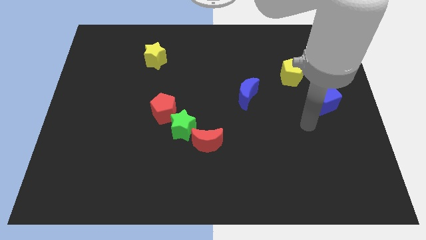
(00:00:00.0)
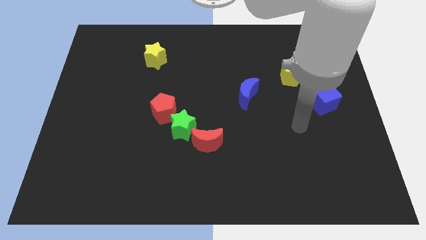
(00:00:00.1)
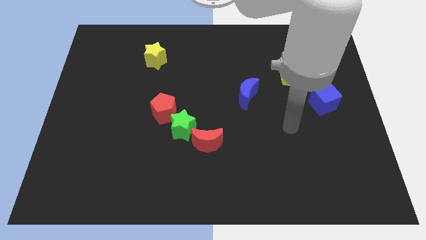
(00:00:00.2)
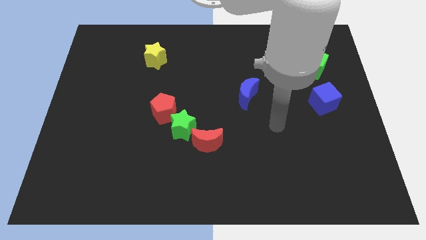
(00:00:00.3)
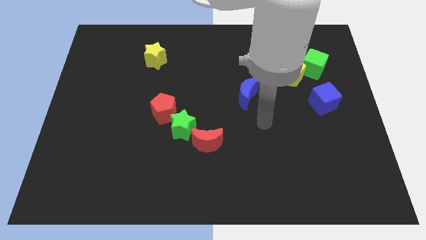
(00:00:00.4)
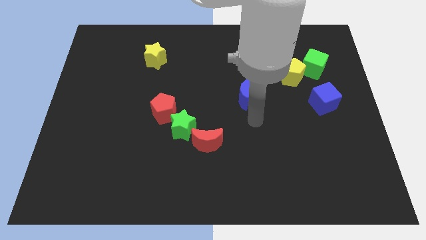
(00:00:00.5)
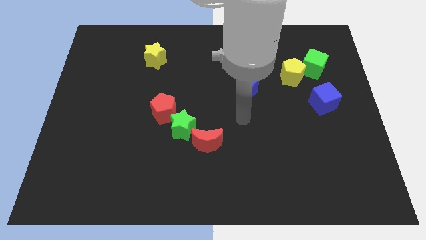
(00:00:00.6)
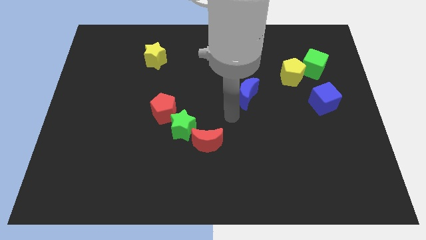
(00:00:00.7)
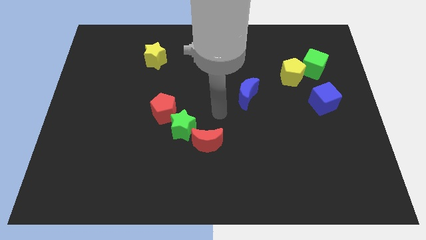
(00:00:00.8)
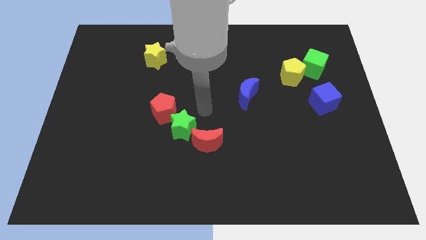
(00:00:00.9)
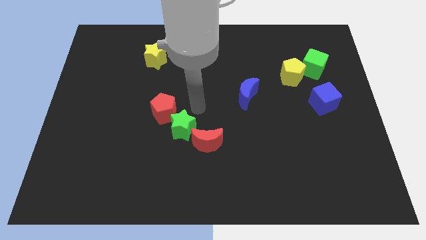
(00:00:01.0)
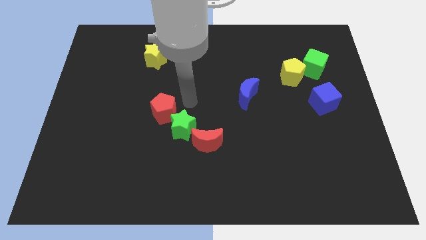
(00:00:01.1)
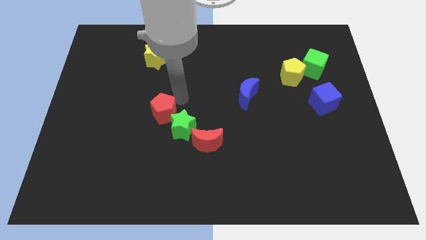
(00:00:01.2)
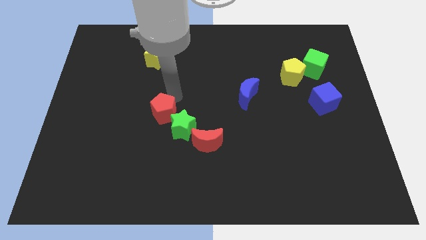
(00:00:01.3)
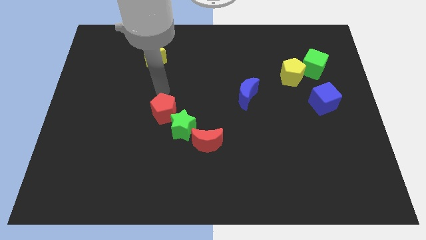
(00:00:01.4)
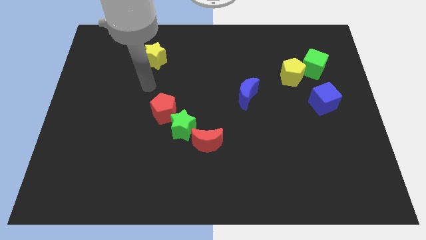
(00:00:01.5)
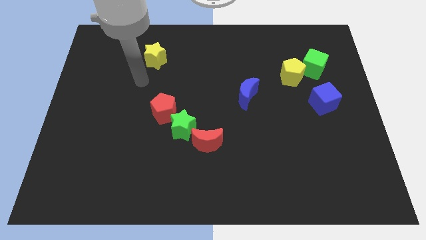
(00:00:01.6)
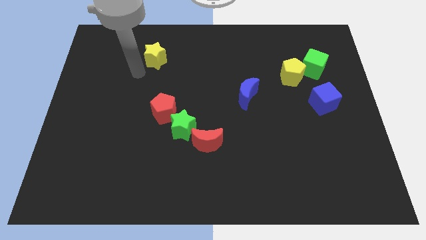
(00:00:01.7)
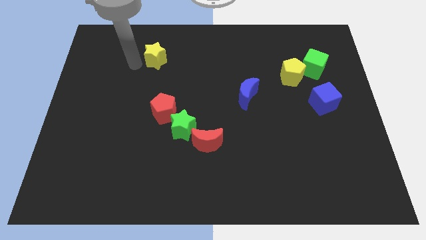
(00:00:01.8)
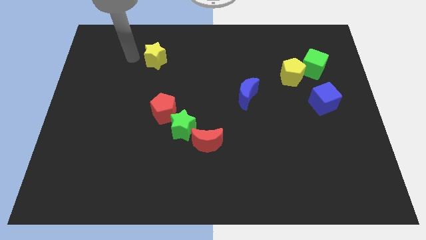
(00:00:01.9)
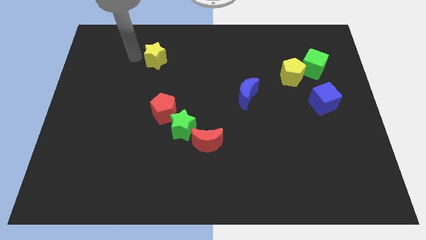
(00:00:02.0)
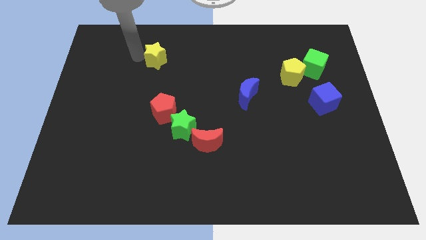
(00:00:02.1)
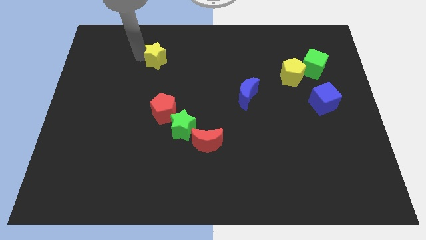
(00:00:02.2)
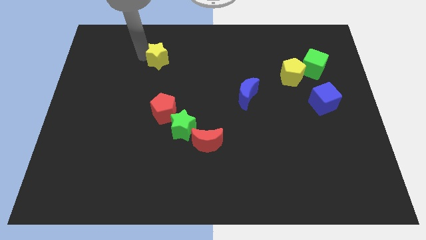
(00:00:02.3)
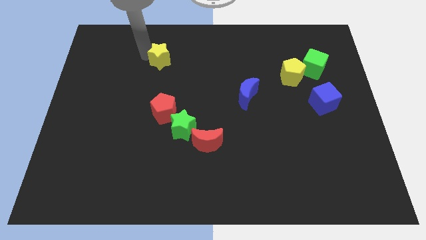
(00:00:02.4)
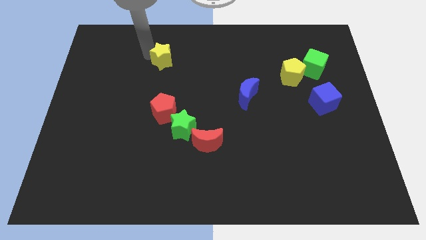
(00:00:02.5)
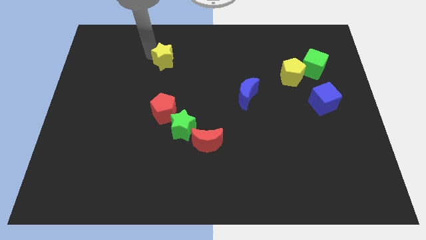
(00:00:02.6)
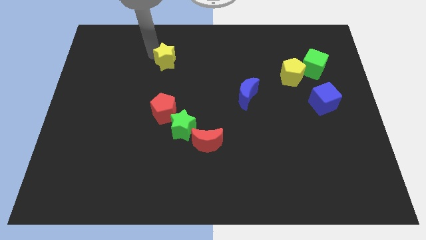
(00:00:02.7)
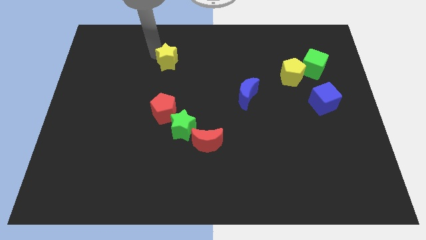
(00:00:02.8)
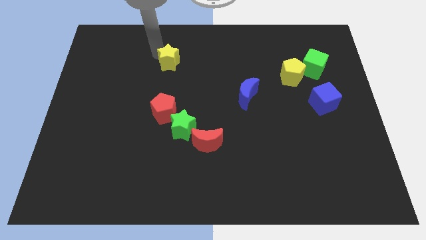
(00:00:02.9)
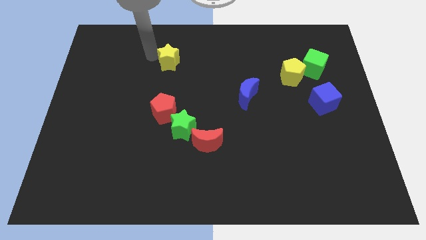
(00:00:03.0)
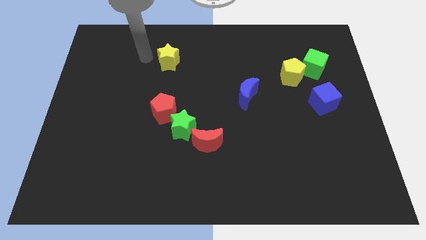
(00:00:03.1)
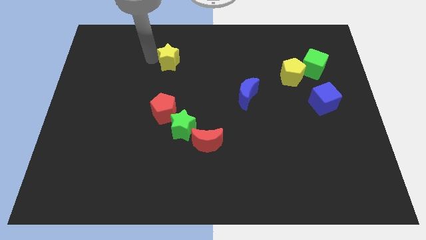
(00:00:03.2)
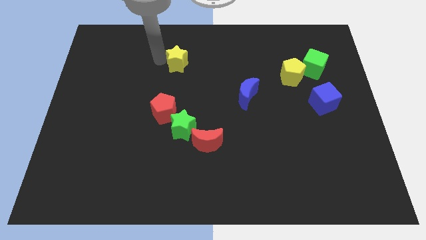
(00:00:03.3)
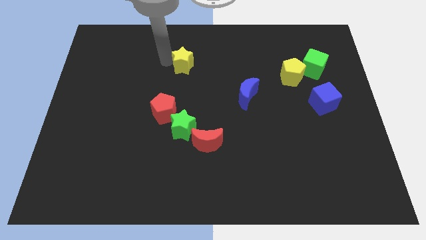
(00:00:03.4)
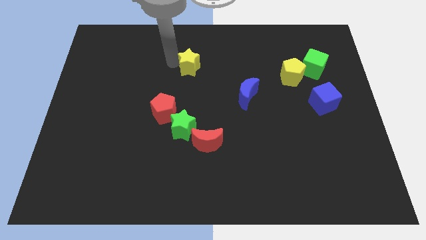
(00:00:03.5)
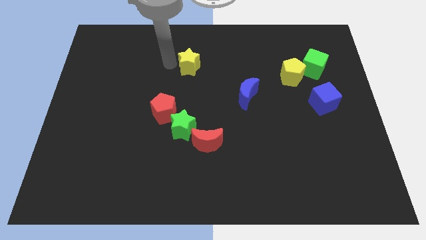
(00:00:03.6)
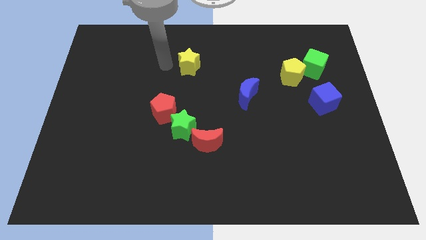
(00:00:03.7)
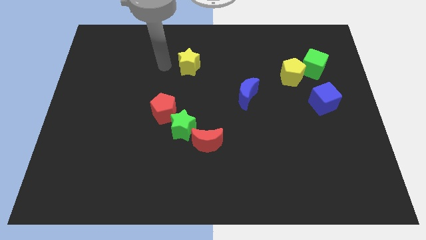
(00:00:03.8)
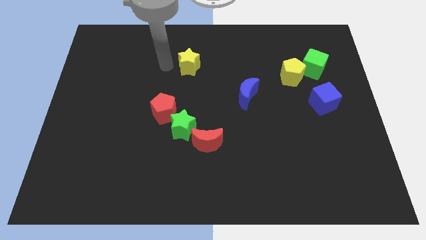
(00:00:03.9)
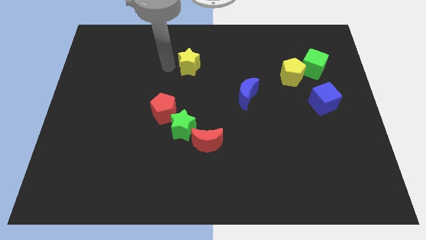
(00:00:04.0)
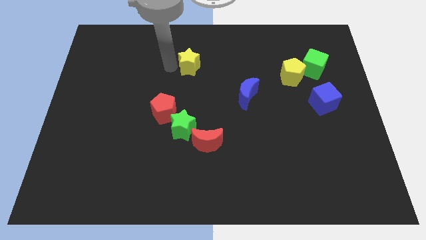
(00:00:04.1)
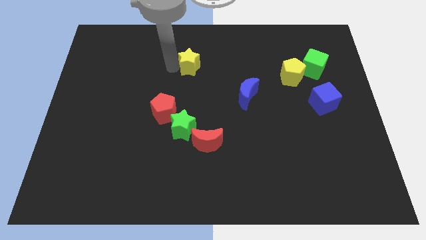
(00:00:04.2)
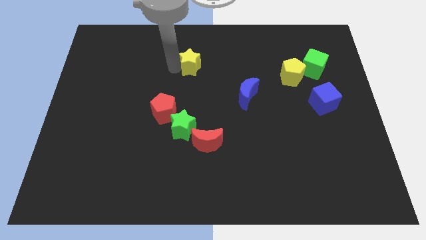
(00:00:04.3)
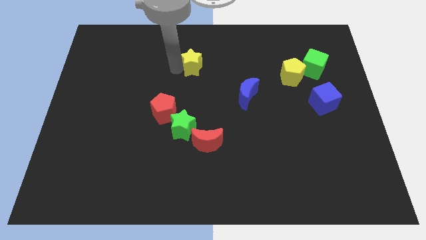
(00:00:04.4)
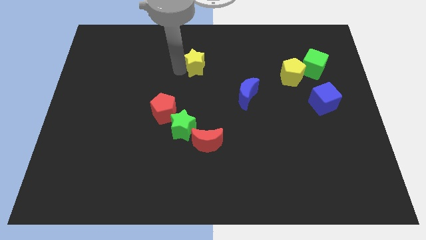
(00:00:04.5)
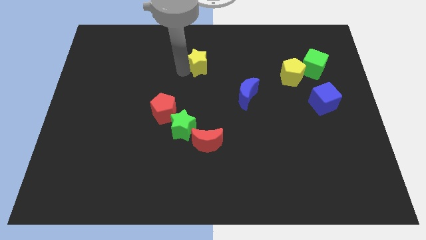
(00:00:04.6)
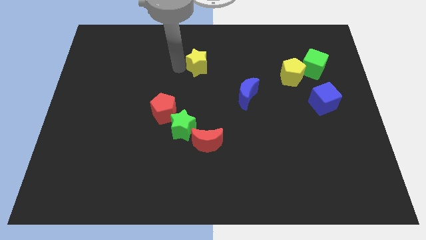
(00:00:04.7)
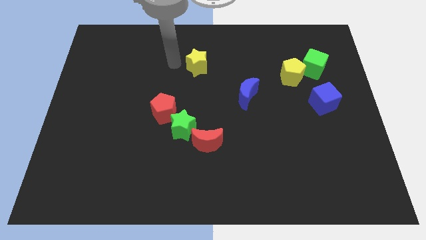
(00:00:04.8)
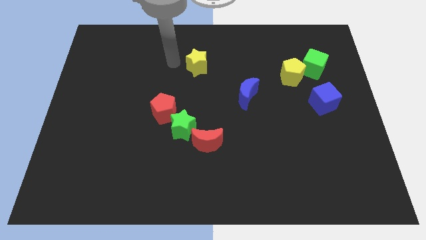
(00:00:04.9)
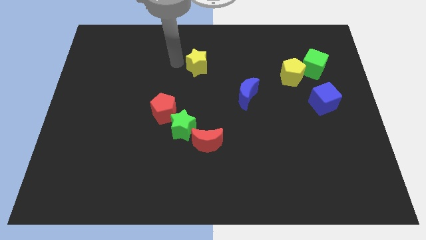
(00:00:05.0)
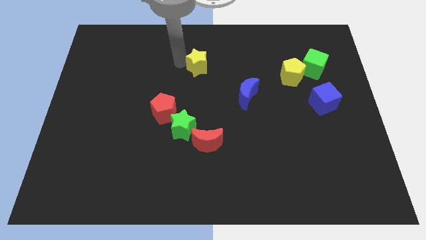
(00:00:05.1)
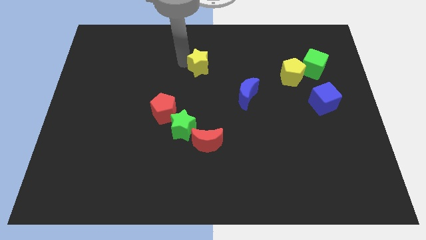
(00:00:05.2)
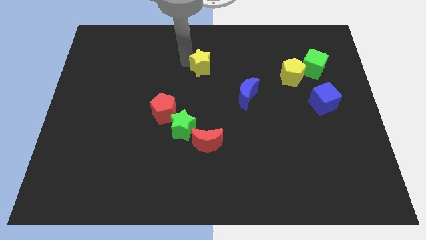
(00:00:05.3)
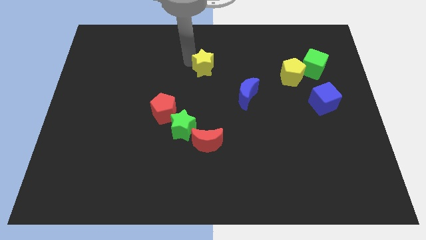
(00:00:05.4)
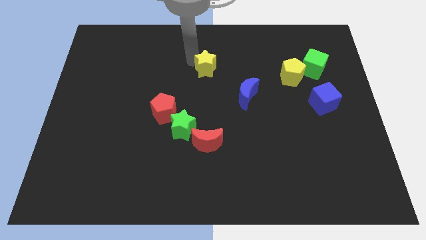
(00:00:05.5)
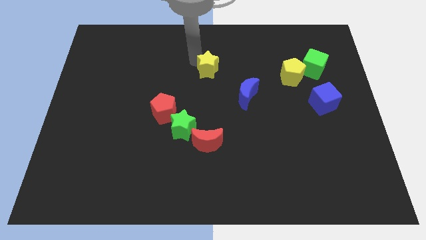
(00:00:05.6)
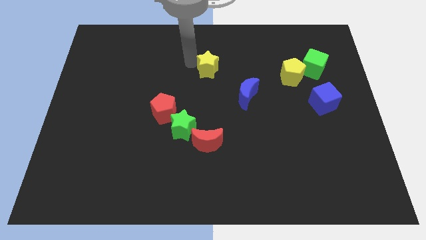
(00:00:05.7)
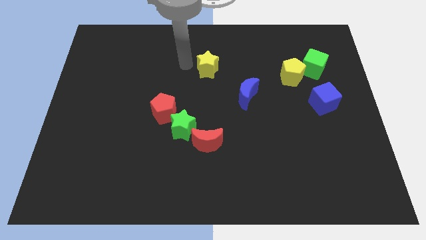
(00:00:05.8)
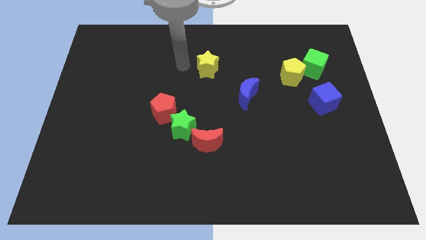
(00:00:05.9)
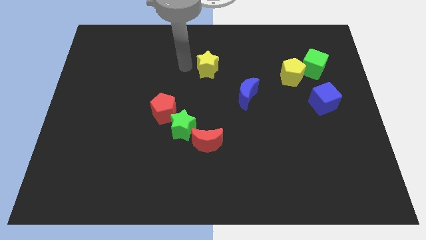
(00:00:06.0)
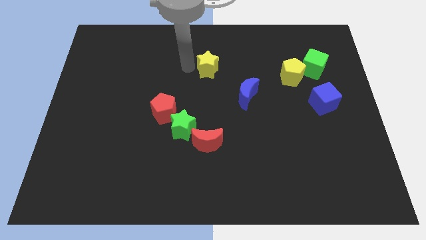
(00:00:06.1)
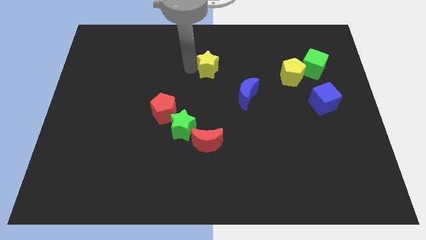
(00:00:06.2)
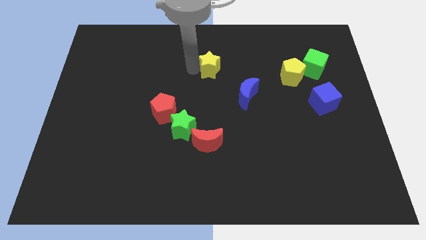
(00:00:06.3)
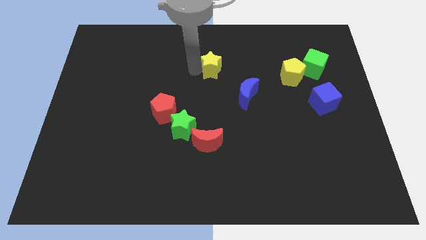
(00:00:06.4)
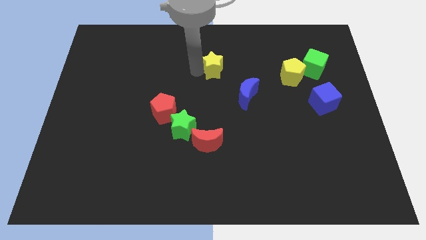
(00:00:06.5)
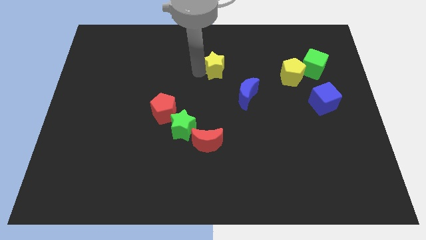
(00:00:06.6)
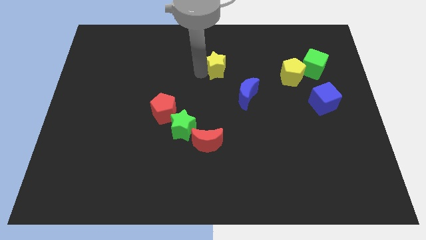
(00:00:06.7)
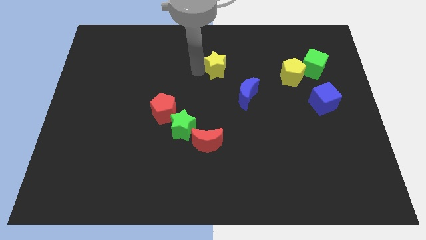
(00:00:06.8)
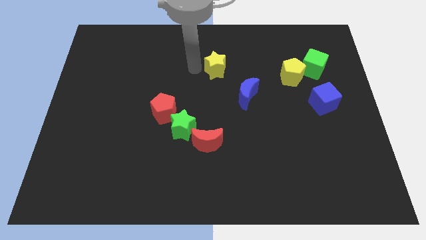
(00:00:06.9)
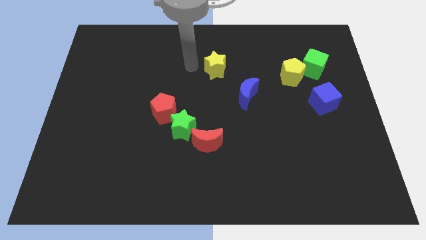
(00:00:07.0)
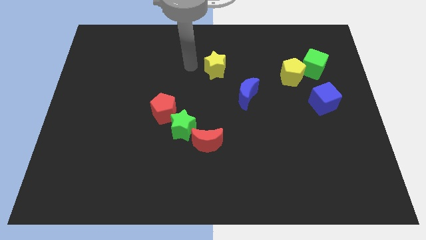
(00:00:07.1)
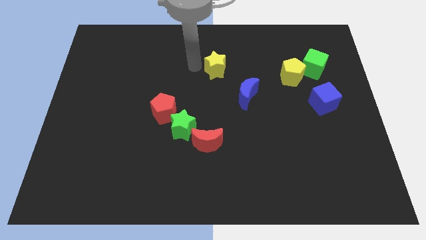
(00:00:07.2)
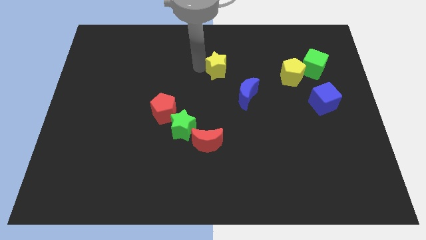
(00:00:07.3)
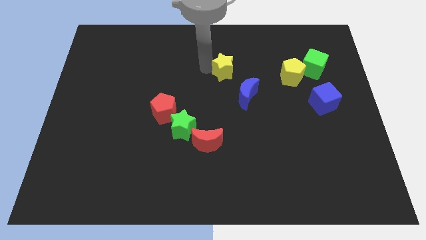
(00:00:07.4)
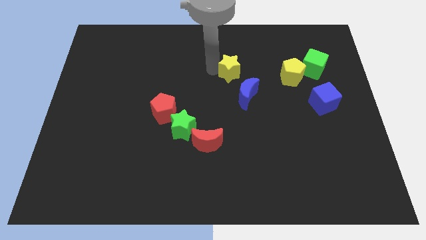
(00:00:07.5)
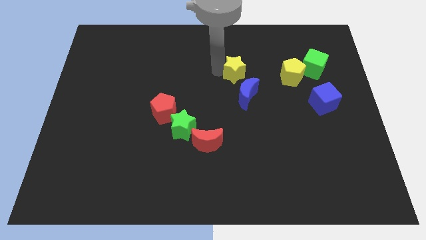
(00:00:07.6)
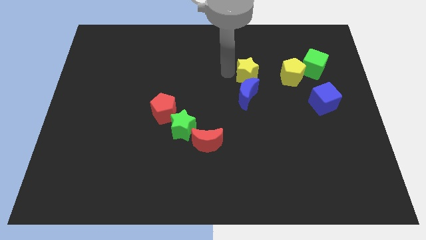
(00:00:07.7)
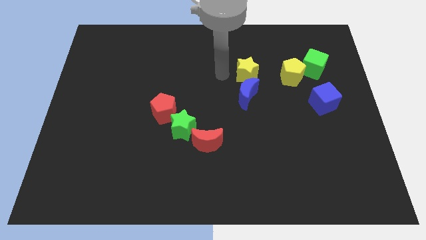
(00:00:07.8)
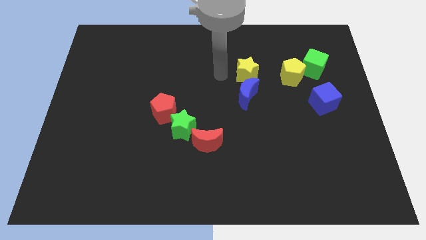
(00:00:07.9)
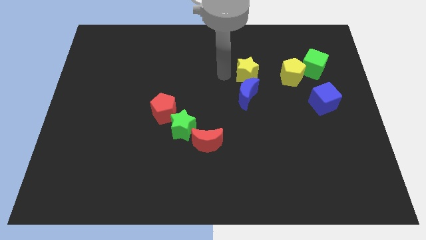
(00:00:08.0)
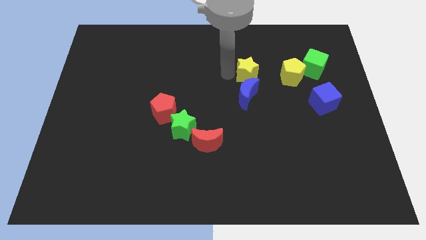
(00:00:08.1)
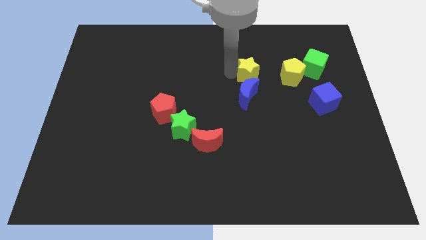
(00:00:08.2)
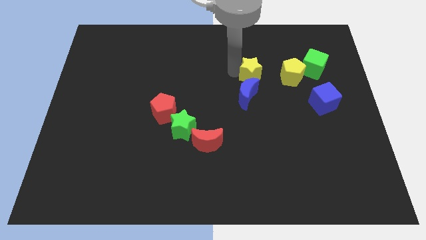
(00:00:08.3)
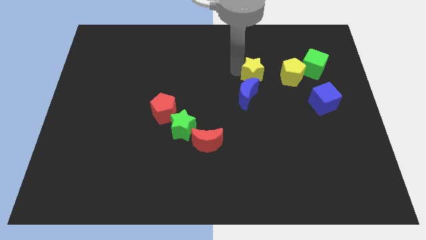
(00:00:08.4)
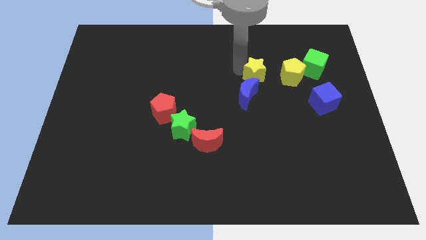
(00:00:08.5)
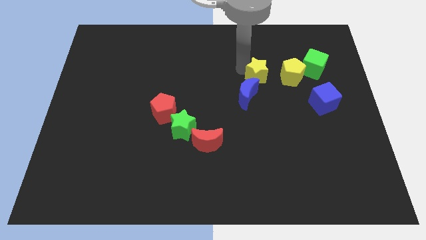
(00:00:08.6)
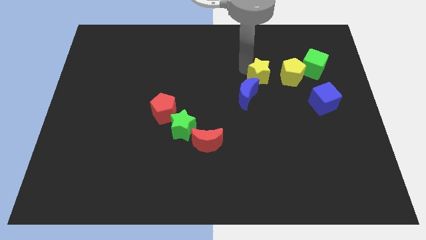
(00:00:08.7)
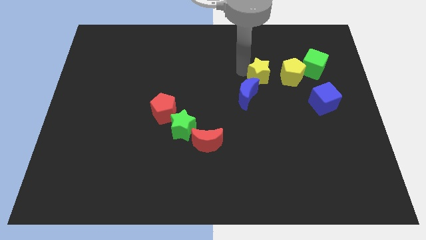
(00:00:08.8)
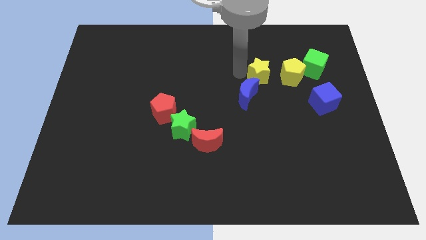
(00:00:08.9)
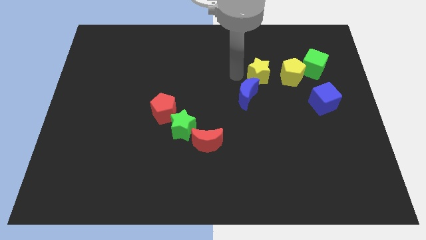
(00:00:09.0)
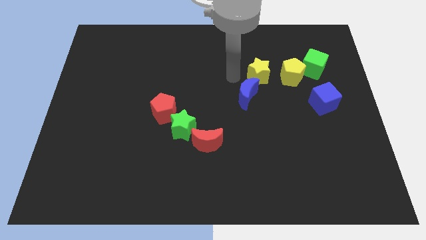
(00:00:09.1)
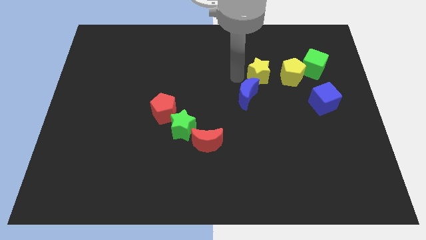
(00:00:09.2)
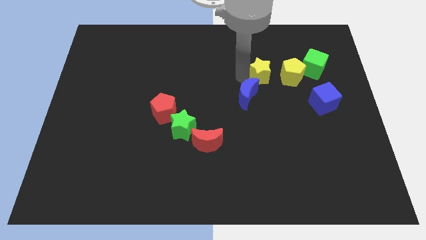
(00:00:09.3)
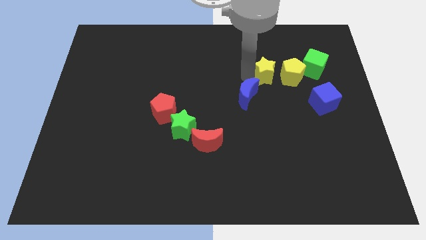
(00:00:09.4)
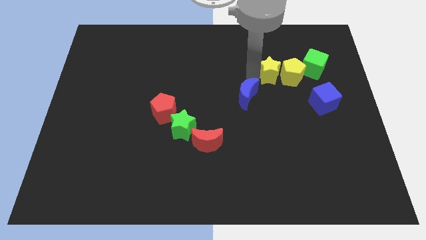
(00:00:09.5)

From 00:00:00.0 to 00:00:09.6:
put the yellow star towards the yellow pentagon
